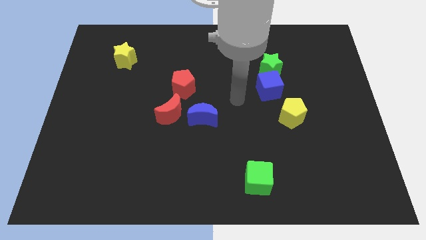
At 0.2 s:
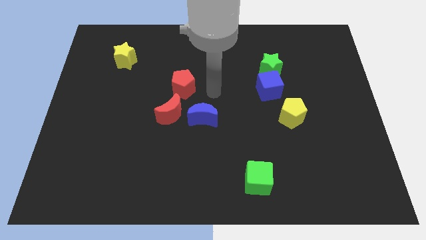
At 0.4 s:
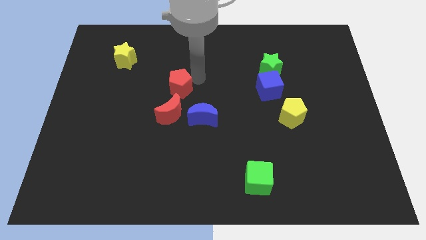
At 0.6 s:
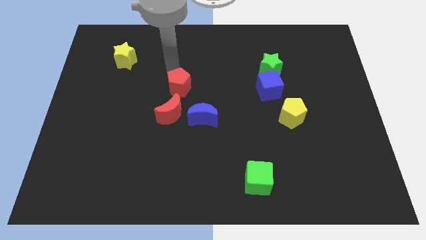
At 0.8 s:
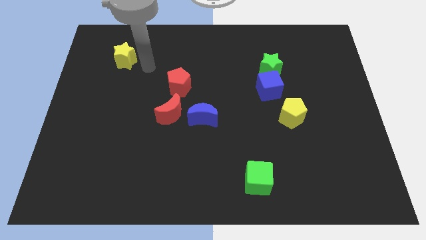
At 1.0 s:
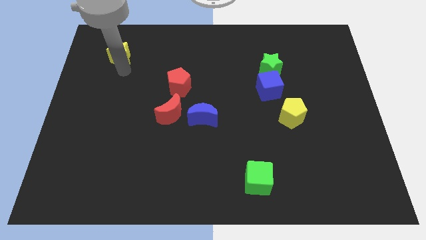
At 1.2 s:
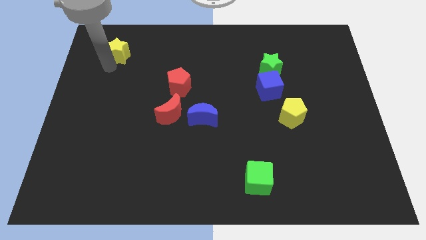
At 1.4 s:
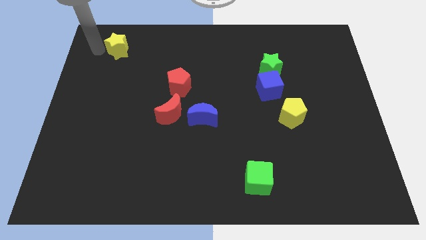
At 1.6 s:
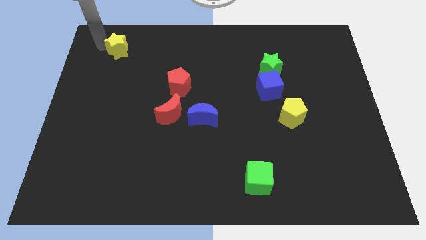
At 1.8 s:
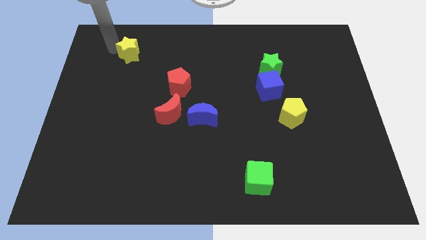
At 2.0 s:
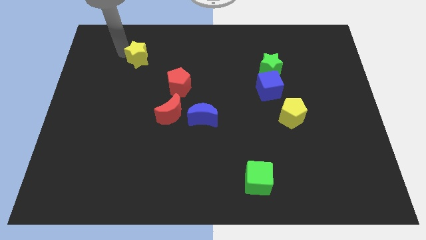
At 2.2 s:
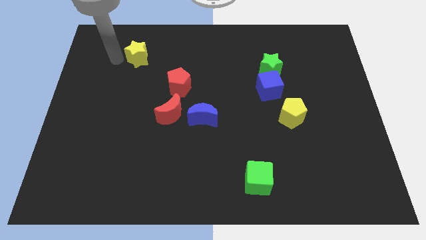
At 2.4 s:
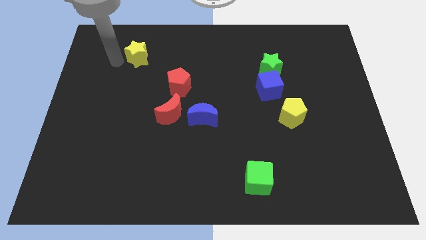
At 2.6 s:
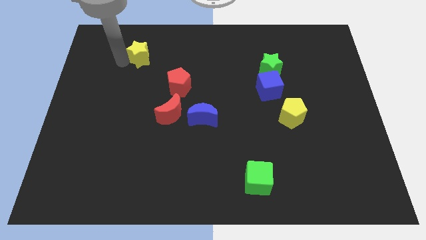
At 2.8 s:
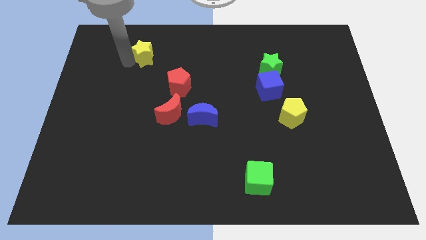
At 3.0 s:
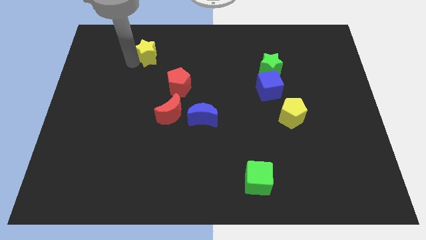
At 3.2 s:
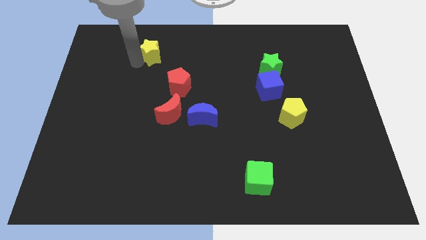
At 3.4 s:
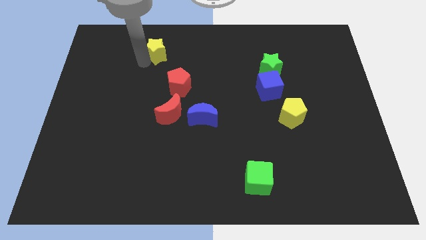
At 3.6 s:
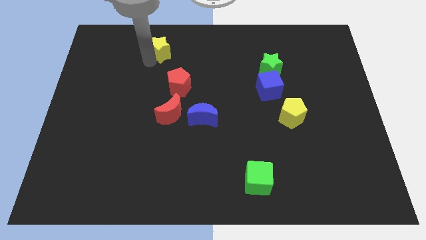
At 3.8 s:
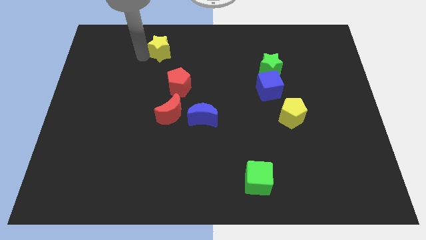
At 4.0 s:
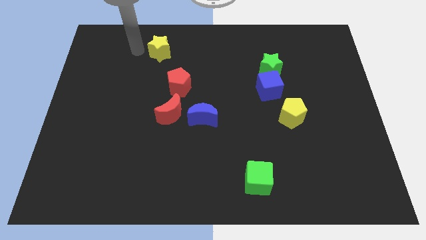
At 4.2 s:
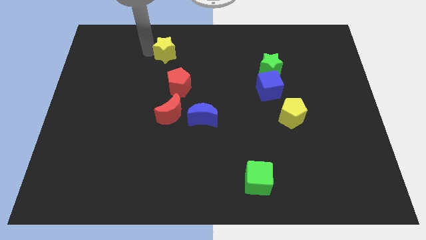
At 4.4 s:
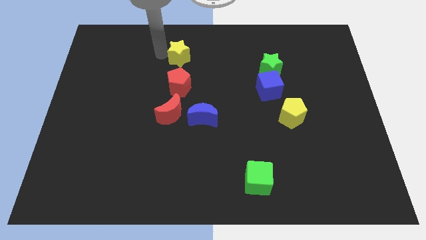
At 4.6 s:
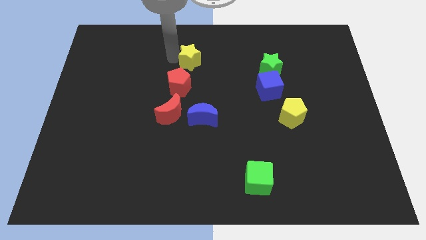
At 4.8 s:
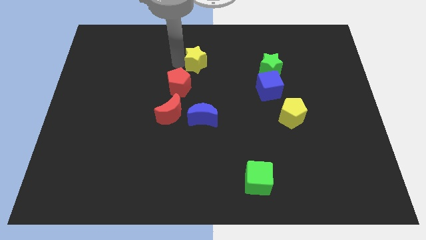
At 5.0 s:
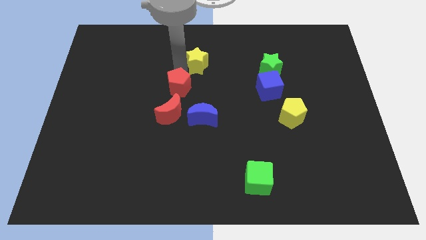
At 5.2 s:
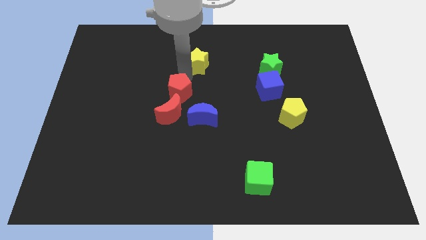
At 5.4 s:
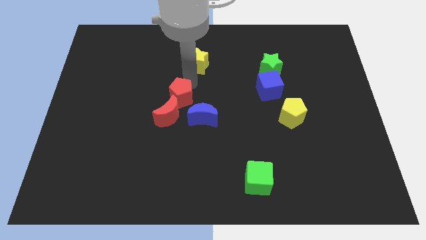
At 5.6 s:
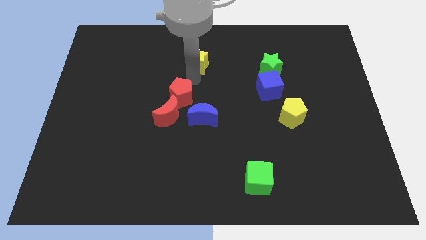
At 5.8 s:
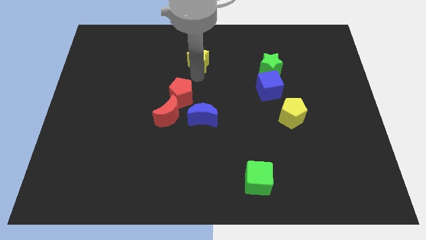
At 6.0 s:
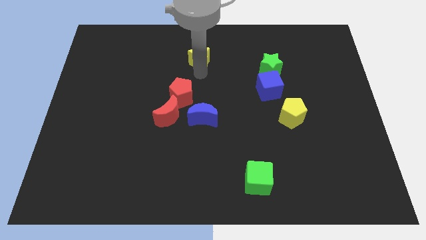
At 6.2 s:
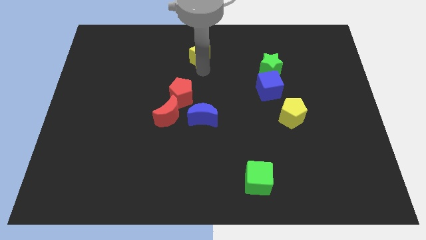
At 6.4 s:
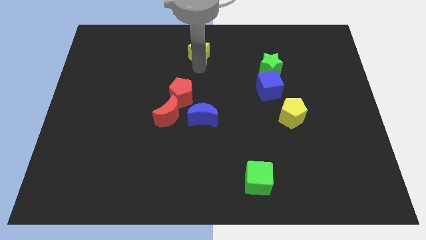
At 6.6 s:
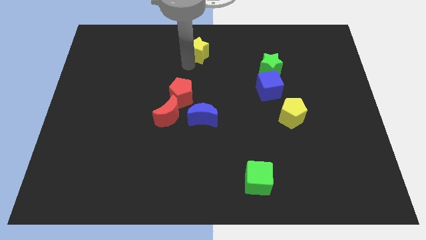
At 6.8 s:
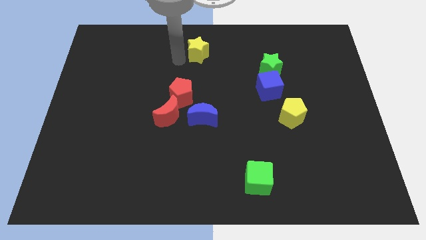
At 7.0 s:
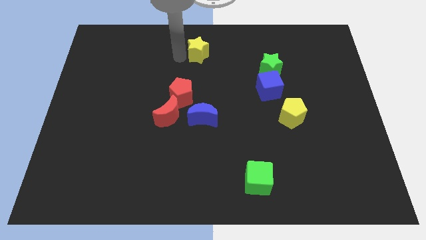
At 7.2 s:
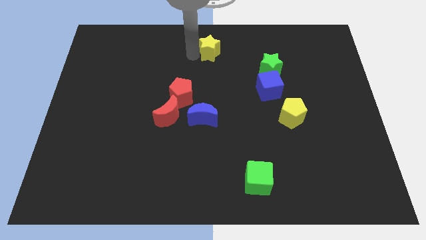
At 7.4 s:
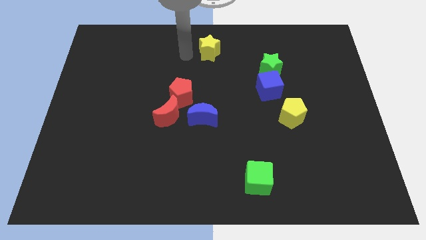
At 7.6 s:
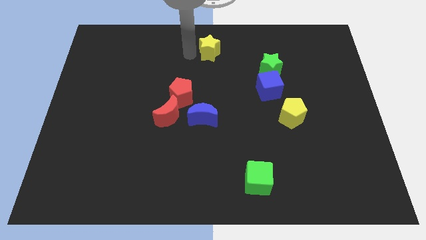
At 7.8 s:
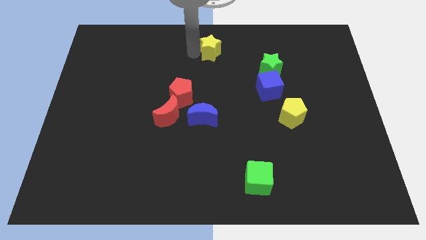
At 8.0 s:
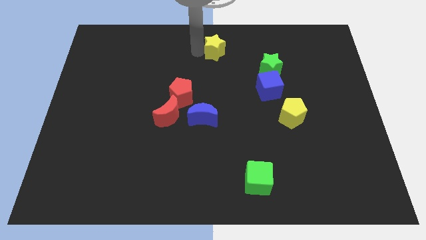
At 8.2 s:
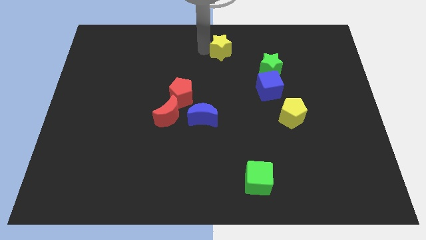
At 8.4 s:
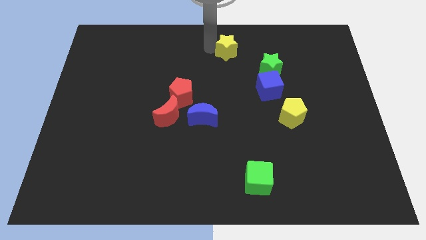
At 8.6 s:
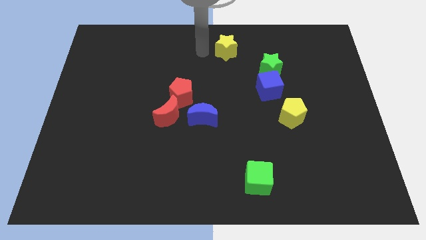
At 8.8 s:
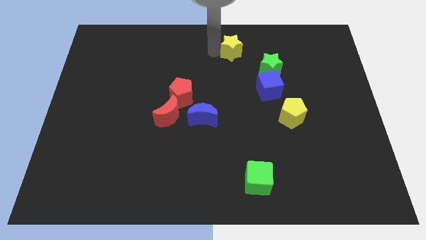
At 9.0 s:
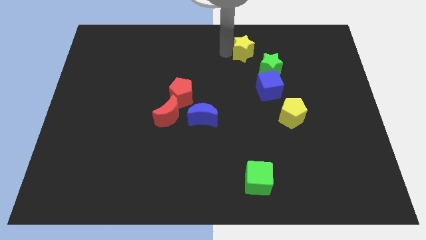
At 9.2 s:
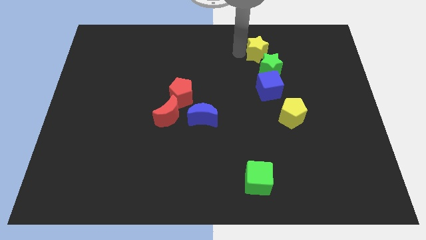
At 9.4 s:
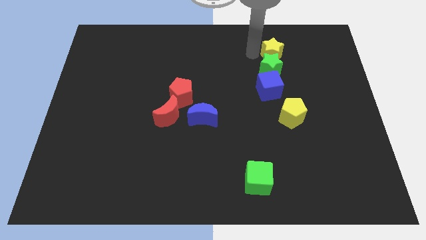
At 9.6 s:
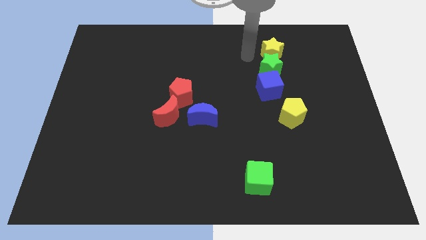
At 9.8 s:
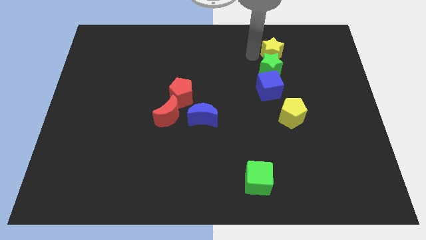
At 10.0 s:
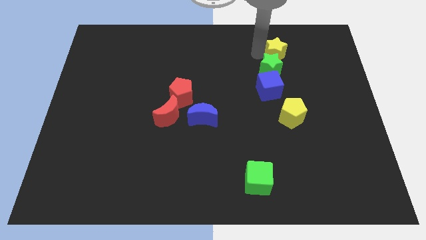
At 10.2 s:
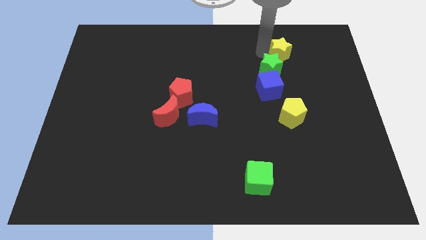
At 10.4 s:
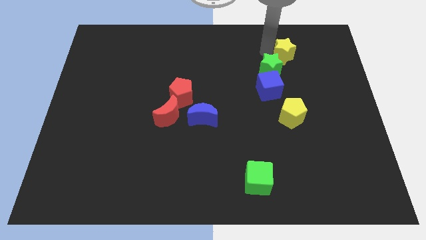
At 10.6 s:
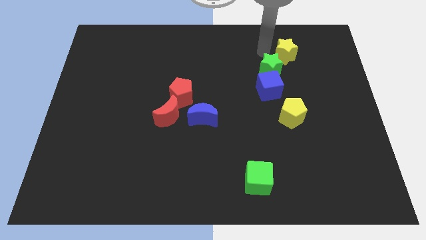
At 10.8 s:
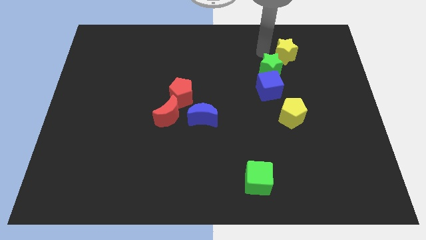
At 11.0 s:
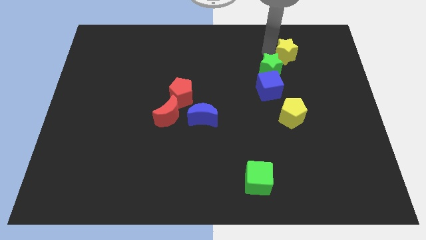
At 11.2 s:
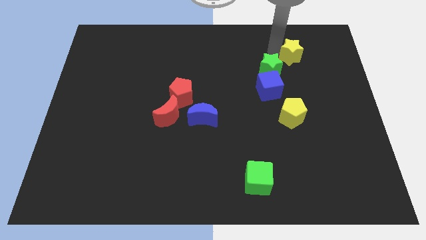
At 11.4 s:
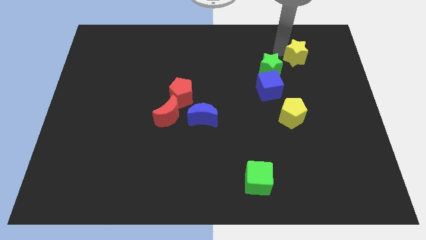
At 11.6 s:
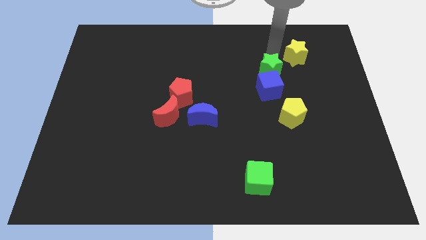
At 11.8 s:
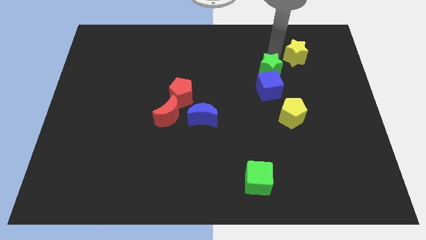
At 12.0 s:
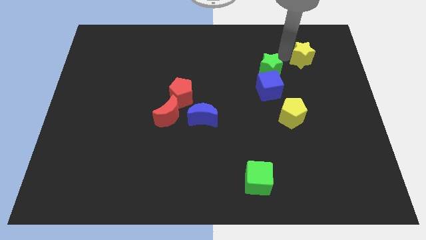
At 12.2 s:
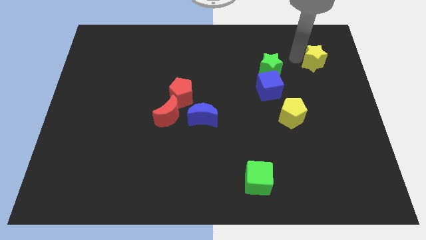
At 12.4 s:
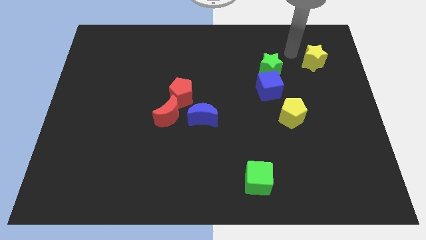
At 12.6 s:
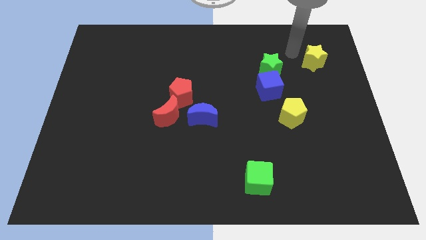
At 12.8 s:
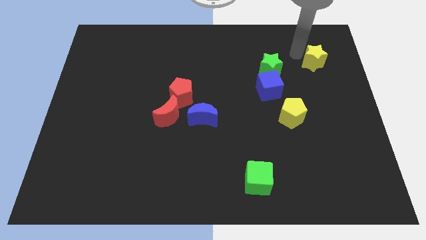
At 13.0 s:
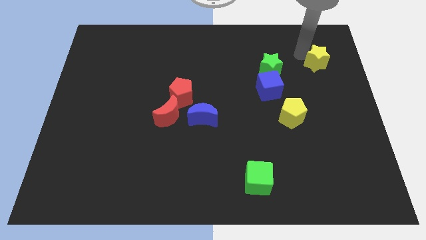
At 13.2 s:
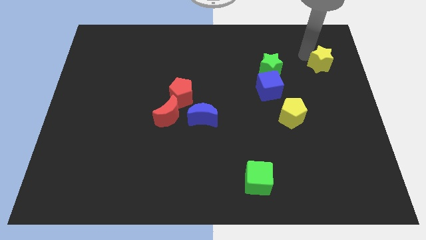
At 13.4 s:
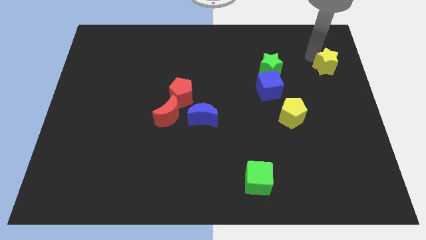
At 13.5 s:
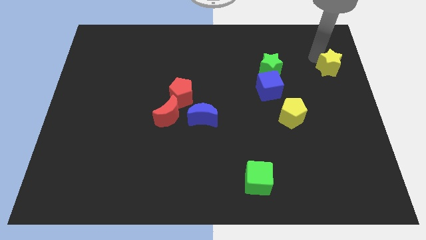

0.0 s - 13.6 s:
move the yellow star to the center right
